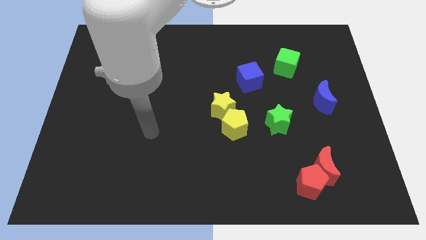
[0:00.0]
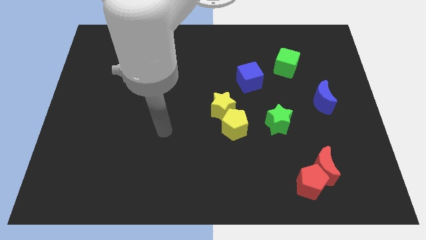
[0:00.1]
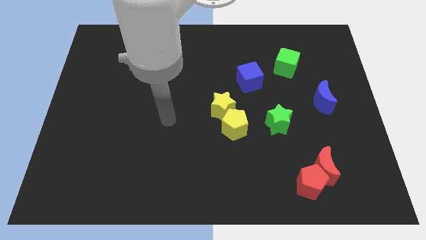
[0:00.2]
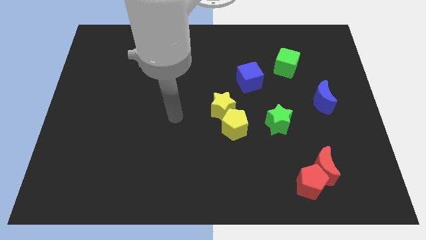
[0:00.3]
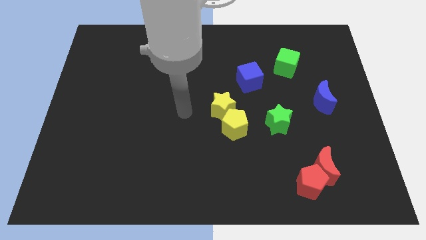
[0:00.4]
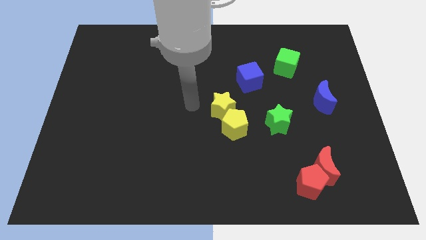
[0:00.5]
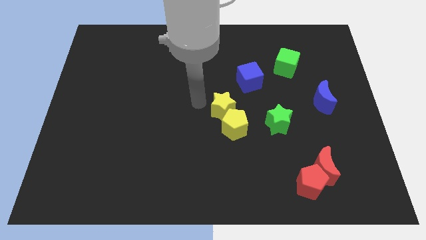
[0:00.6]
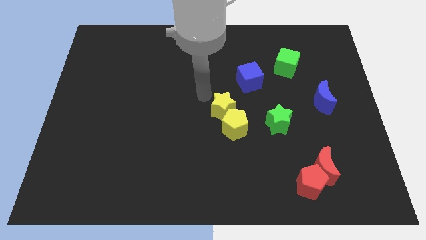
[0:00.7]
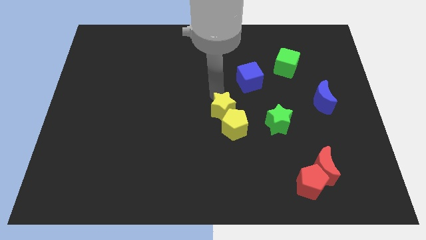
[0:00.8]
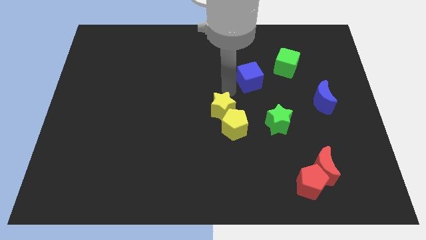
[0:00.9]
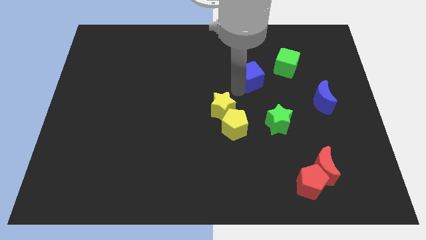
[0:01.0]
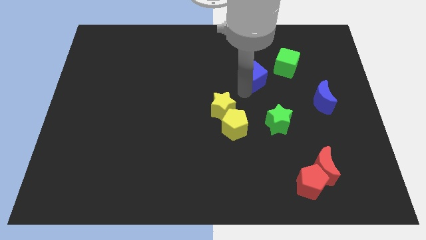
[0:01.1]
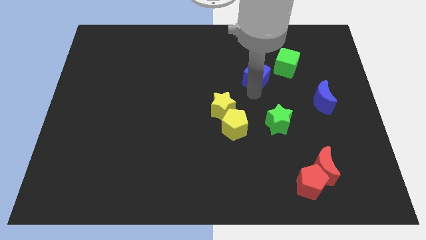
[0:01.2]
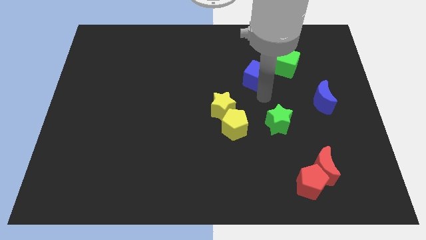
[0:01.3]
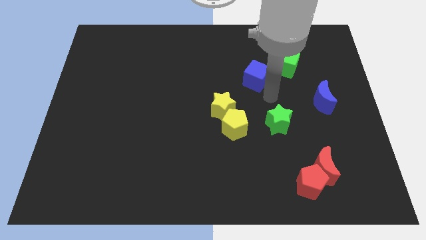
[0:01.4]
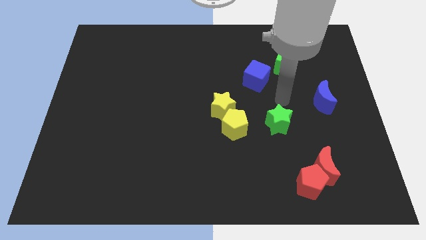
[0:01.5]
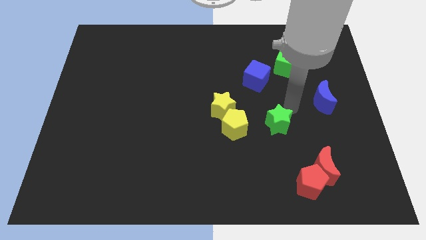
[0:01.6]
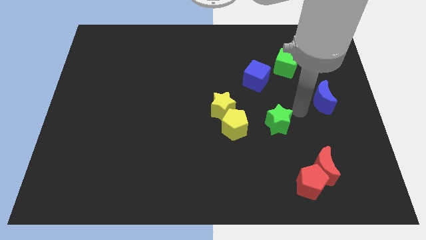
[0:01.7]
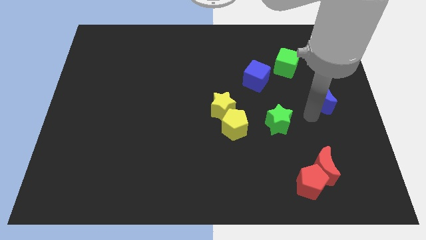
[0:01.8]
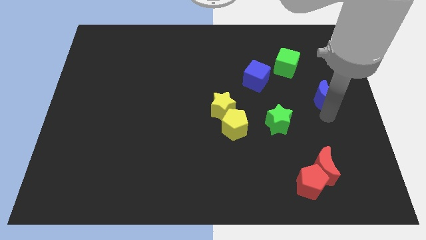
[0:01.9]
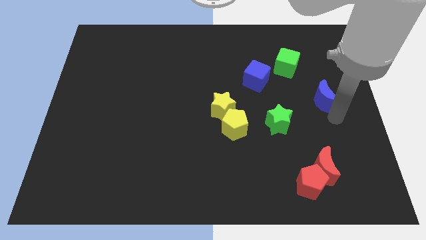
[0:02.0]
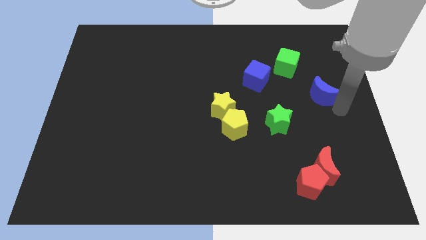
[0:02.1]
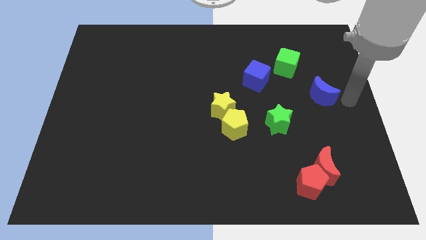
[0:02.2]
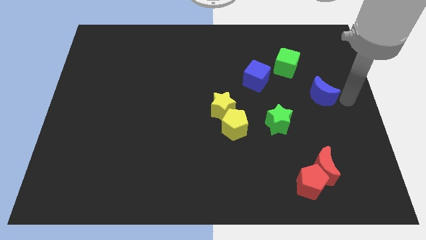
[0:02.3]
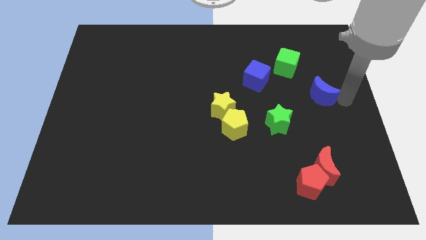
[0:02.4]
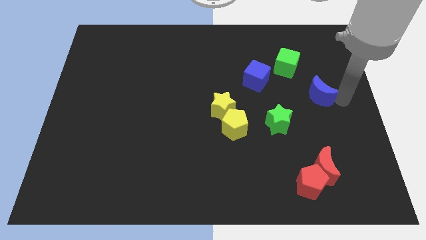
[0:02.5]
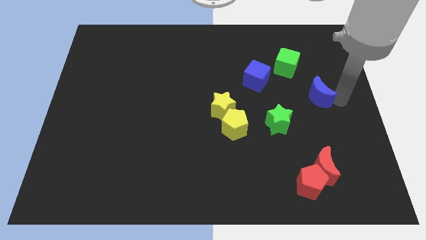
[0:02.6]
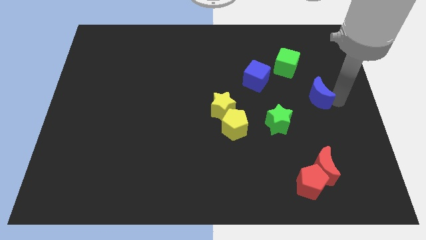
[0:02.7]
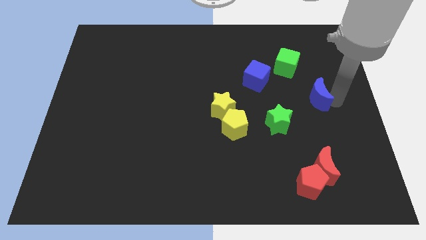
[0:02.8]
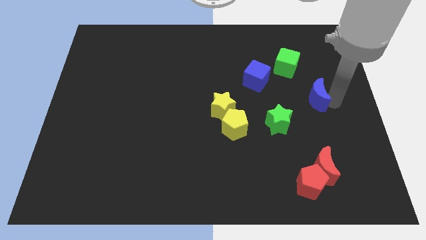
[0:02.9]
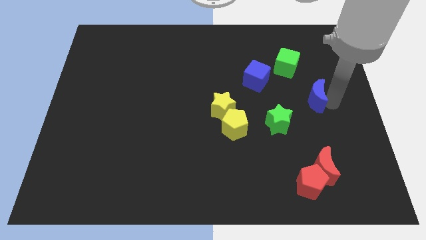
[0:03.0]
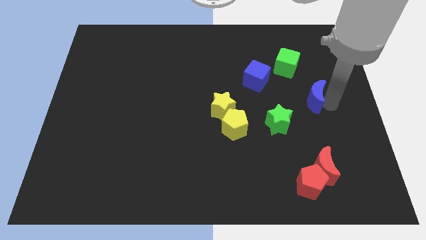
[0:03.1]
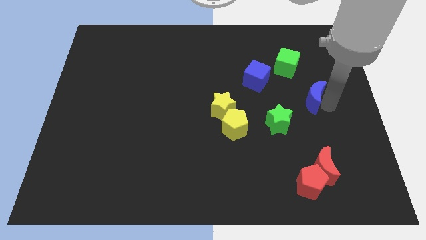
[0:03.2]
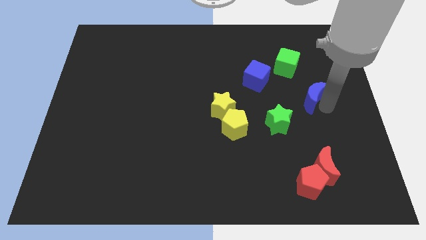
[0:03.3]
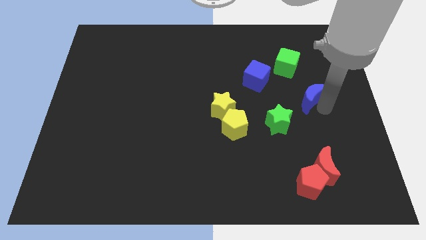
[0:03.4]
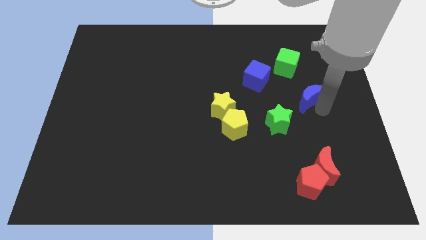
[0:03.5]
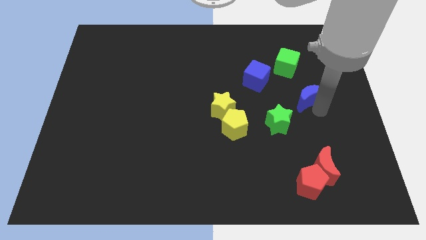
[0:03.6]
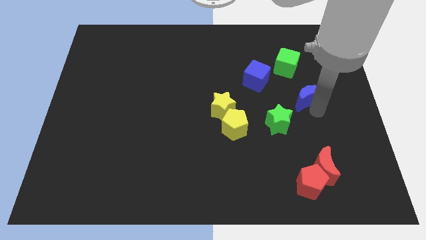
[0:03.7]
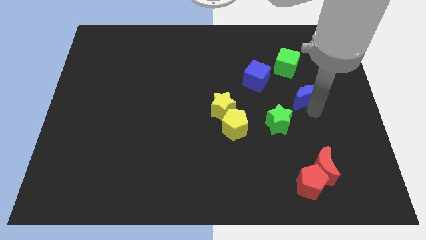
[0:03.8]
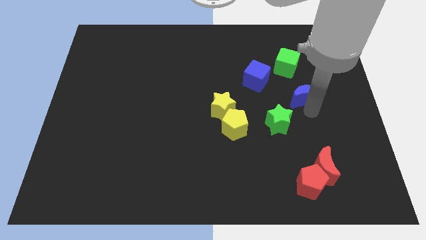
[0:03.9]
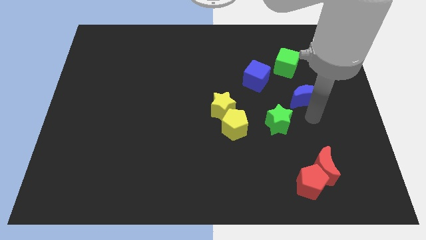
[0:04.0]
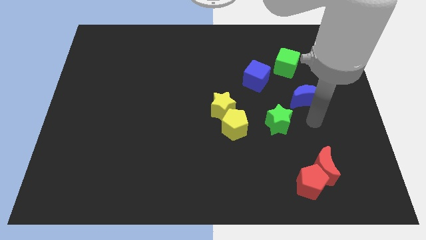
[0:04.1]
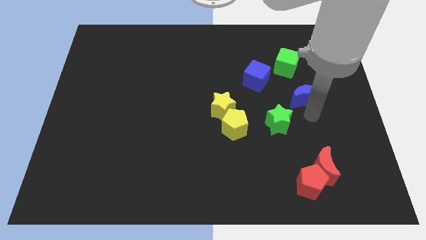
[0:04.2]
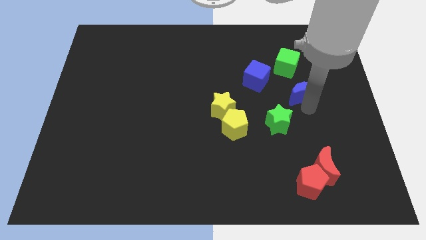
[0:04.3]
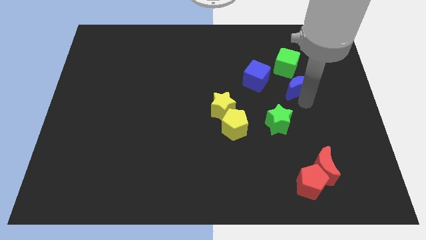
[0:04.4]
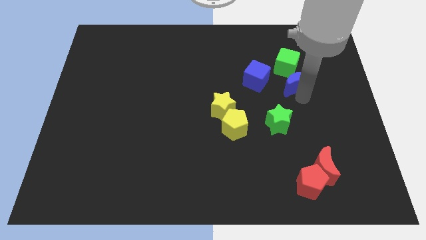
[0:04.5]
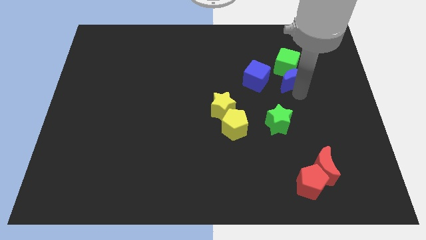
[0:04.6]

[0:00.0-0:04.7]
slide the blue moon close to the green cube

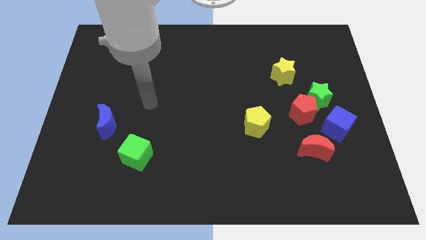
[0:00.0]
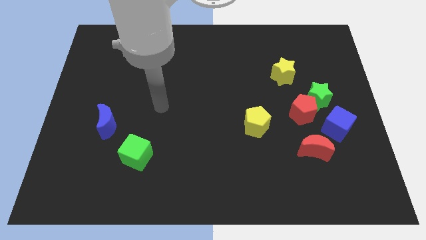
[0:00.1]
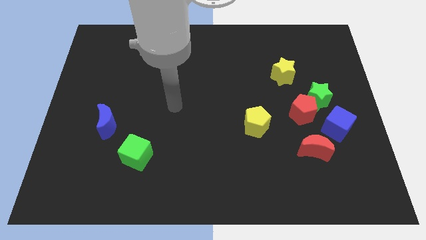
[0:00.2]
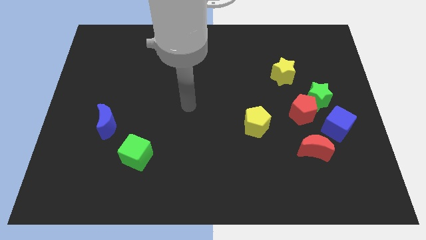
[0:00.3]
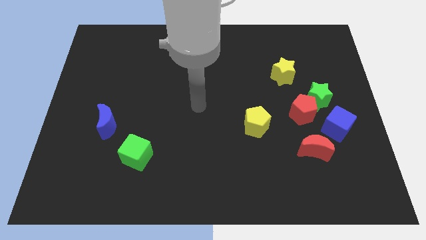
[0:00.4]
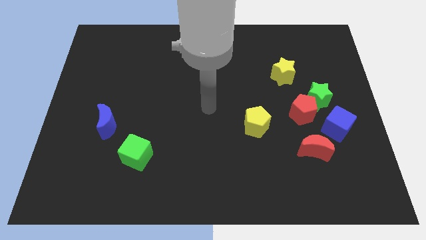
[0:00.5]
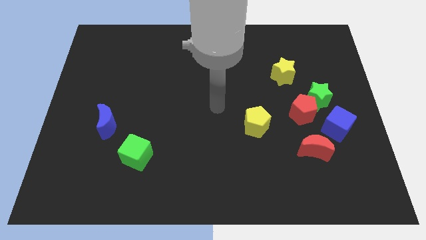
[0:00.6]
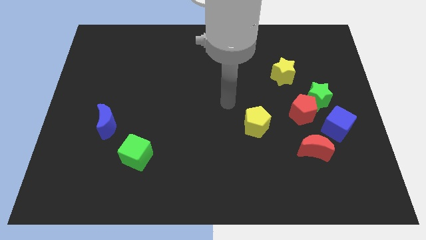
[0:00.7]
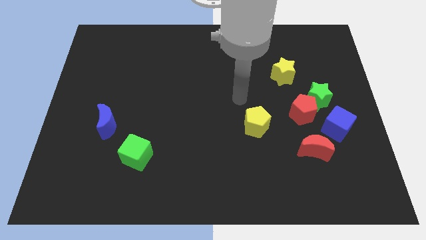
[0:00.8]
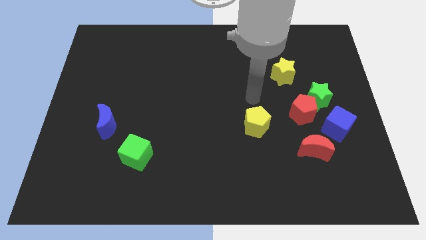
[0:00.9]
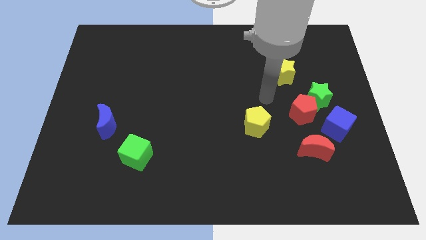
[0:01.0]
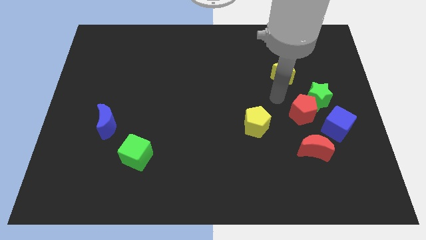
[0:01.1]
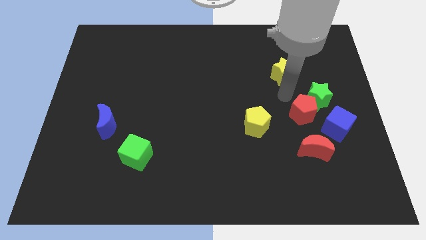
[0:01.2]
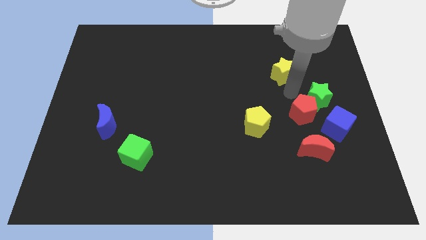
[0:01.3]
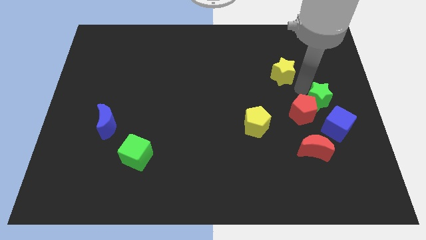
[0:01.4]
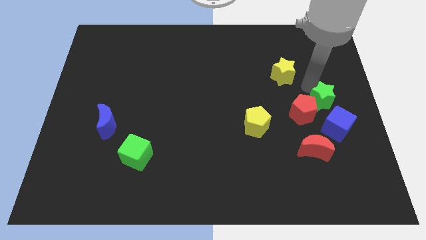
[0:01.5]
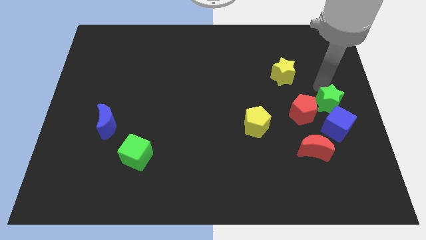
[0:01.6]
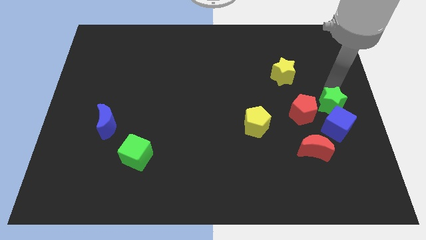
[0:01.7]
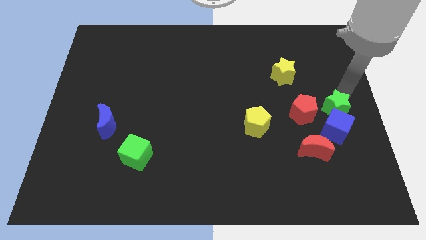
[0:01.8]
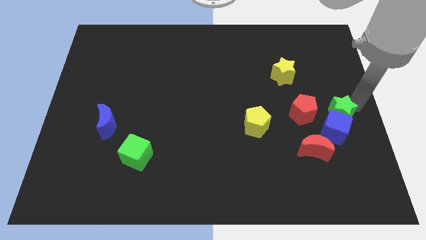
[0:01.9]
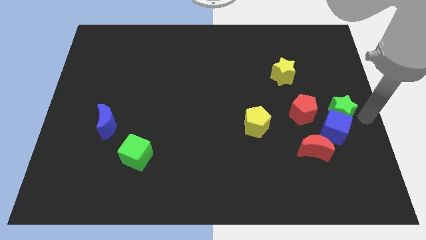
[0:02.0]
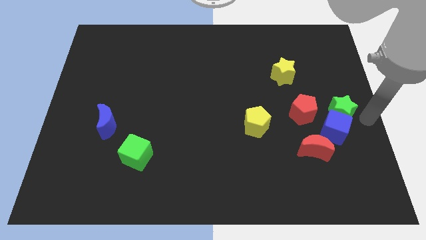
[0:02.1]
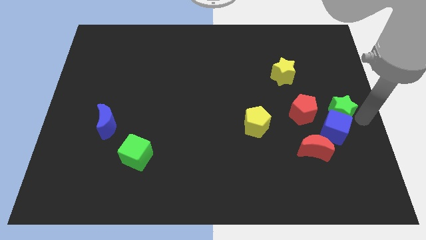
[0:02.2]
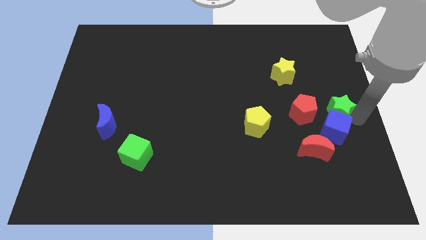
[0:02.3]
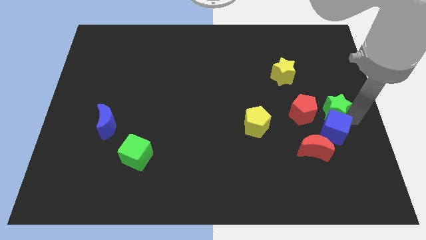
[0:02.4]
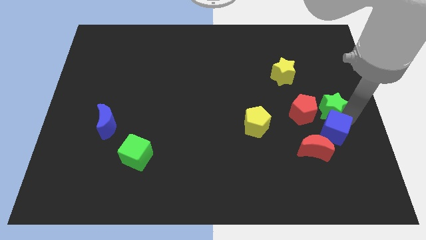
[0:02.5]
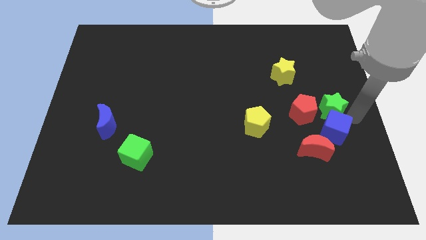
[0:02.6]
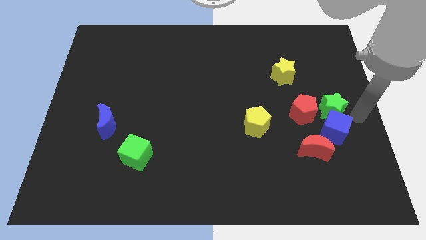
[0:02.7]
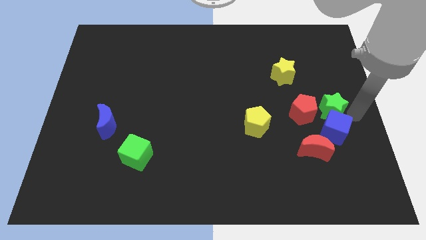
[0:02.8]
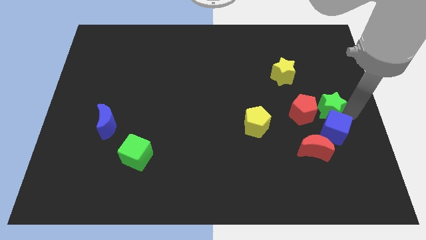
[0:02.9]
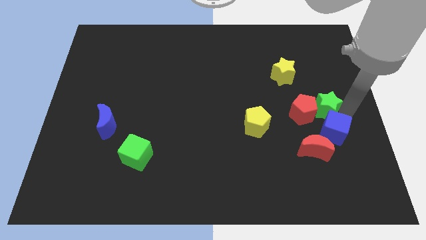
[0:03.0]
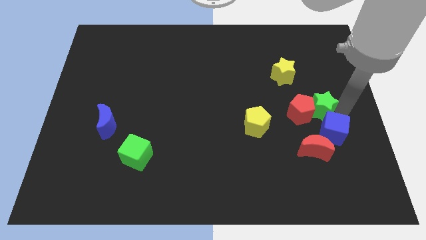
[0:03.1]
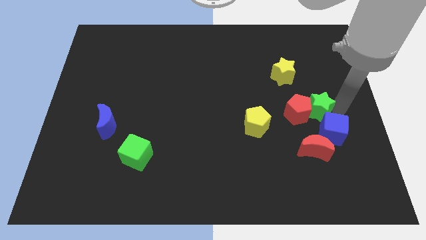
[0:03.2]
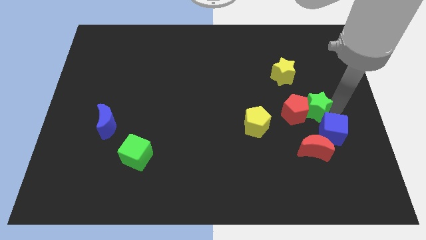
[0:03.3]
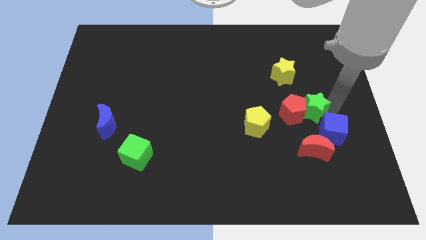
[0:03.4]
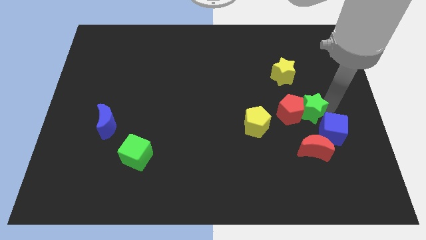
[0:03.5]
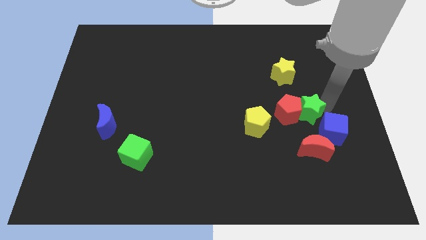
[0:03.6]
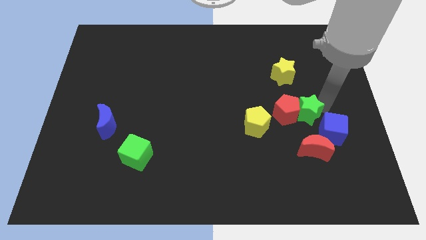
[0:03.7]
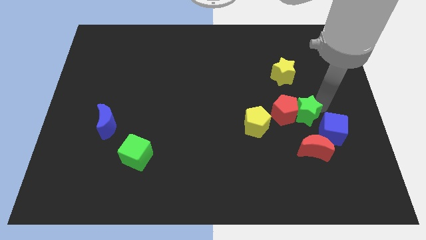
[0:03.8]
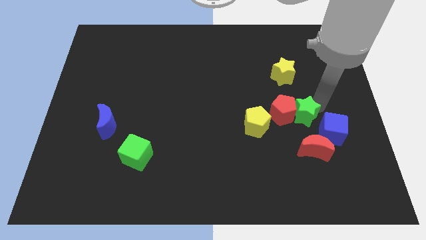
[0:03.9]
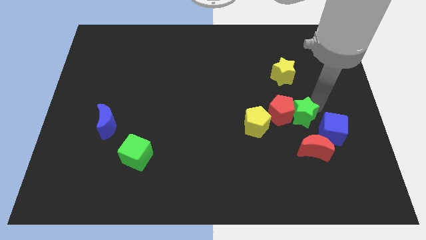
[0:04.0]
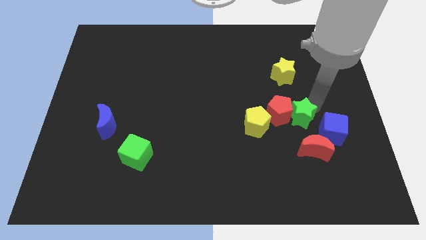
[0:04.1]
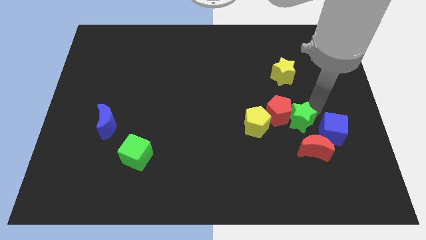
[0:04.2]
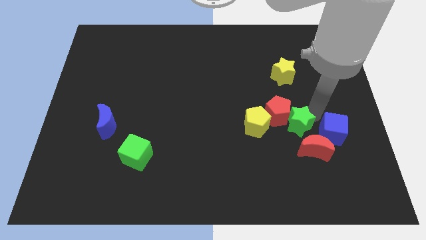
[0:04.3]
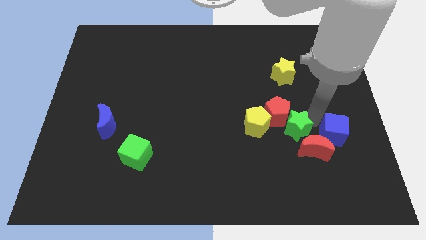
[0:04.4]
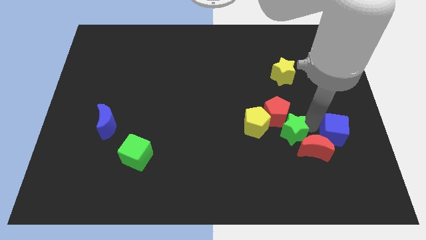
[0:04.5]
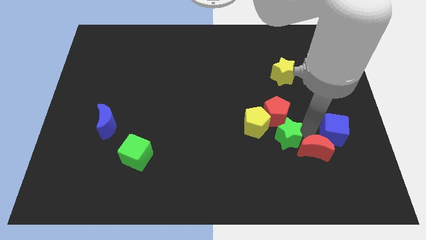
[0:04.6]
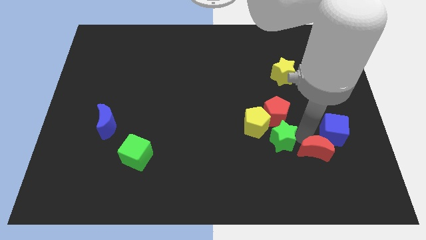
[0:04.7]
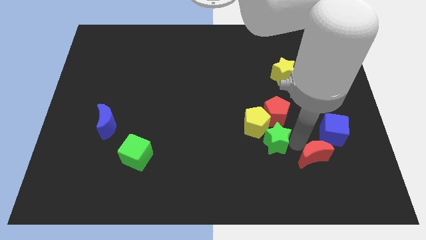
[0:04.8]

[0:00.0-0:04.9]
push the green star next to the yellow pentagon
